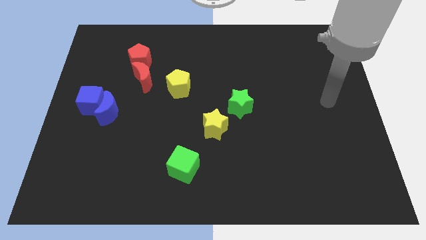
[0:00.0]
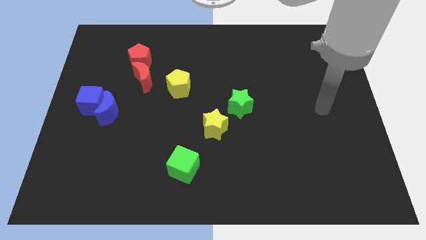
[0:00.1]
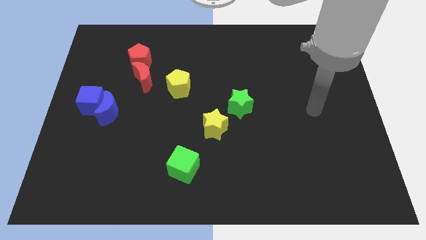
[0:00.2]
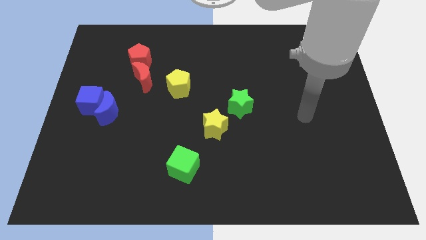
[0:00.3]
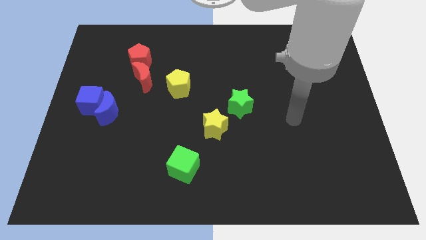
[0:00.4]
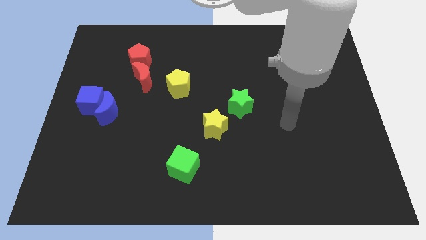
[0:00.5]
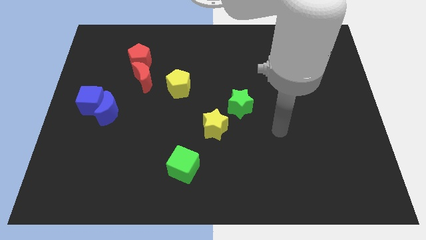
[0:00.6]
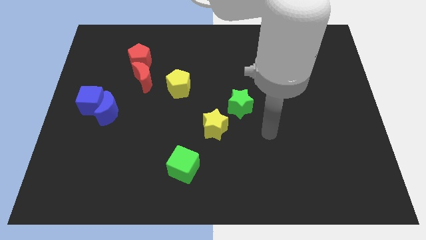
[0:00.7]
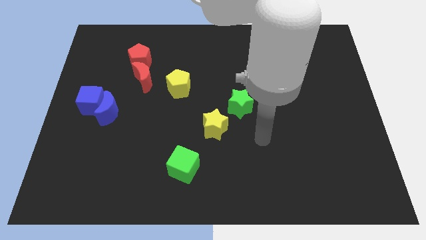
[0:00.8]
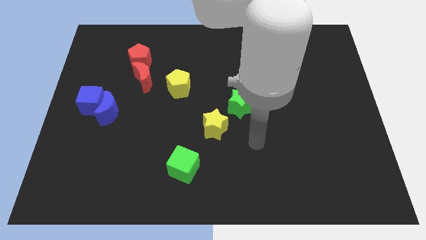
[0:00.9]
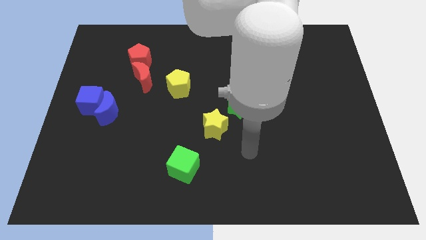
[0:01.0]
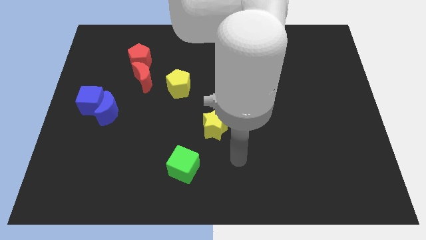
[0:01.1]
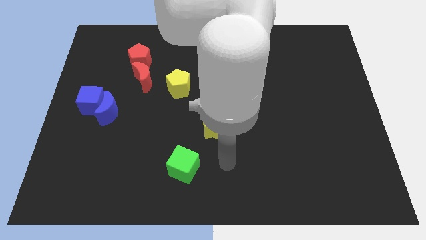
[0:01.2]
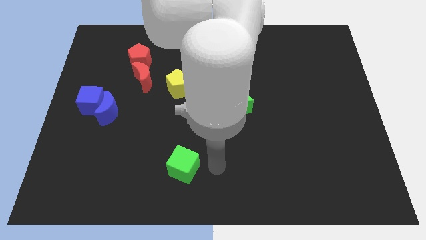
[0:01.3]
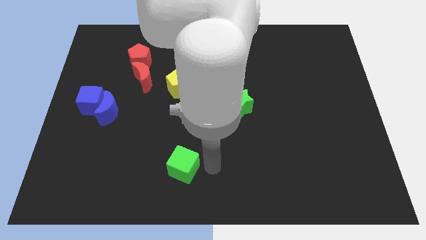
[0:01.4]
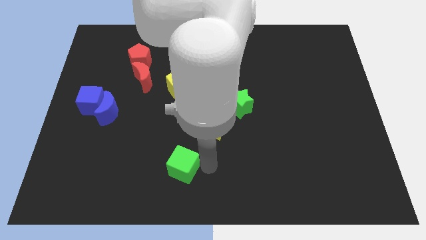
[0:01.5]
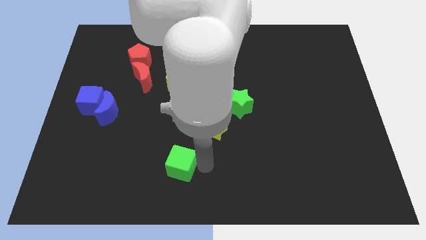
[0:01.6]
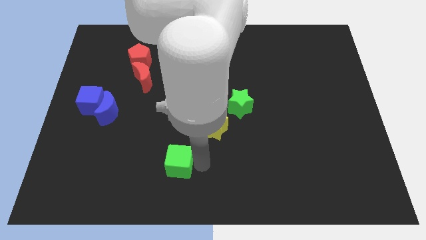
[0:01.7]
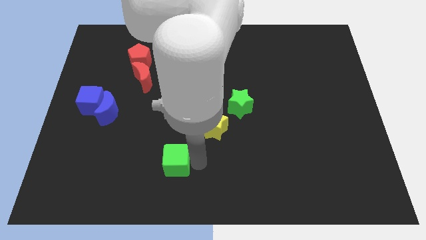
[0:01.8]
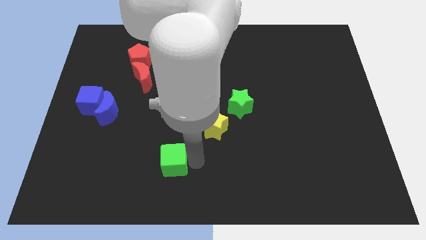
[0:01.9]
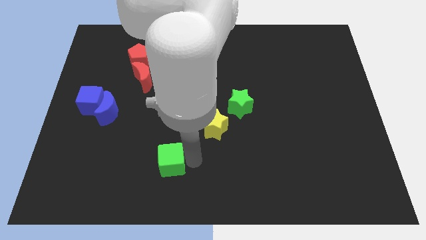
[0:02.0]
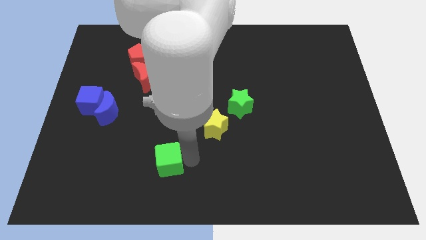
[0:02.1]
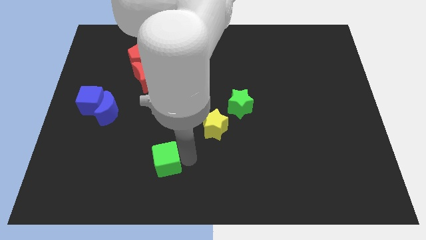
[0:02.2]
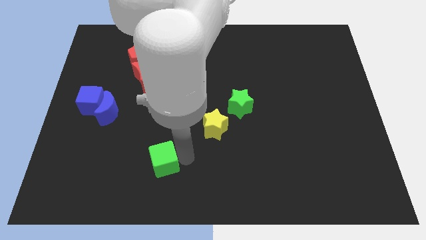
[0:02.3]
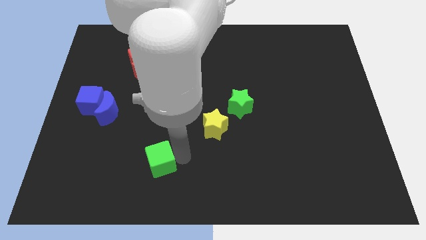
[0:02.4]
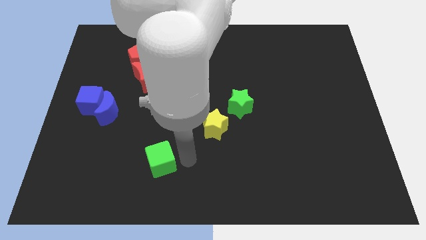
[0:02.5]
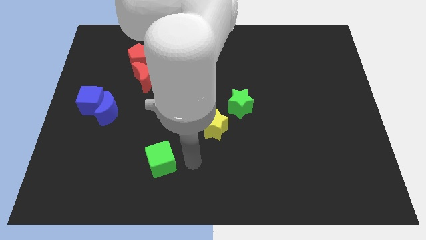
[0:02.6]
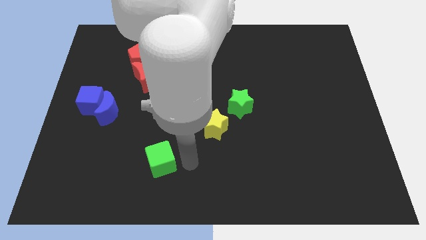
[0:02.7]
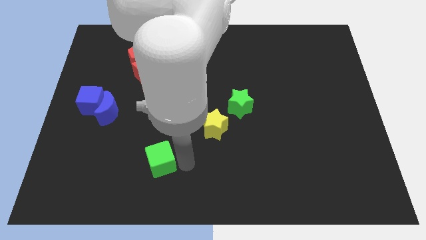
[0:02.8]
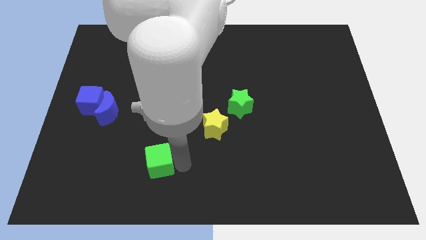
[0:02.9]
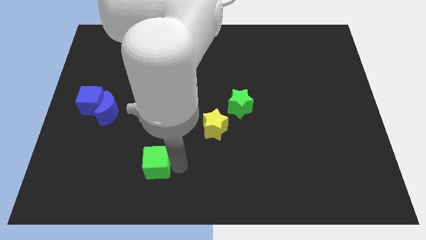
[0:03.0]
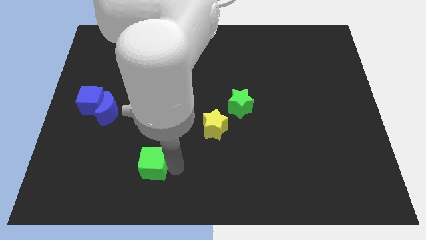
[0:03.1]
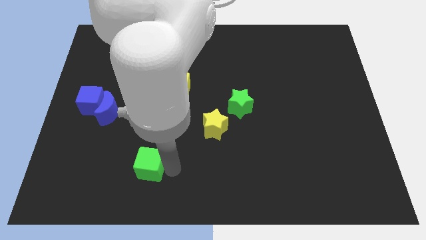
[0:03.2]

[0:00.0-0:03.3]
slightly slide the green cube to the left

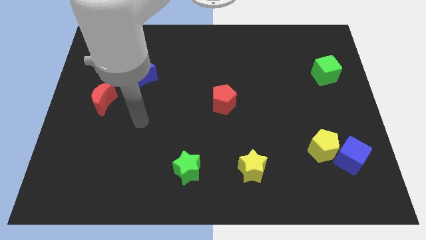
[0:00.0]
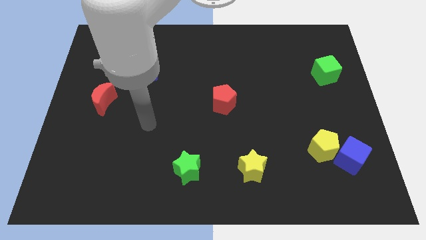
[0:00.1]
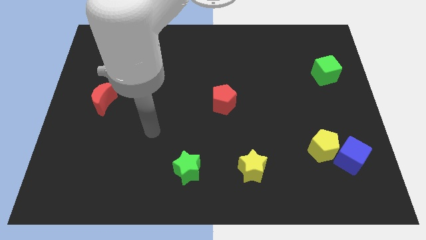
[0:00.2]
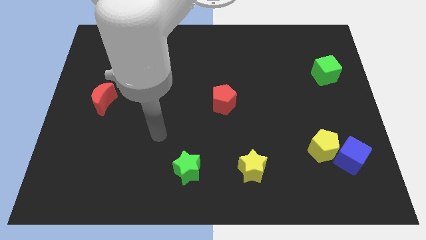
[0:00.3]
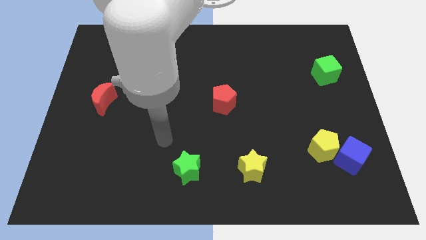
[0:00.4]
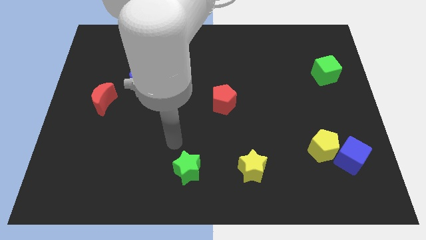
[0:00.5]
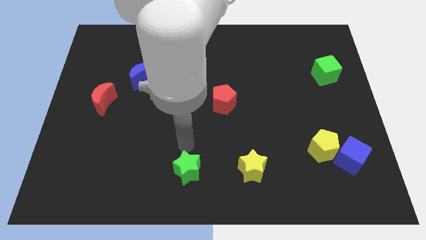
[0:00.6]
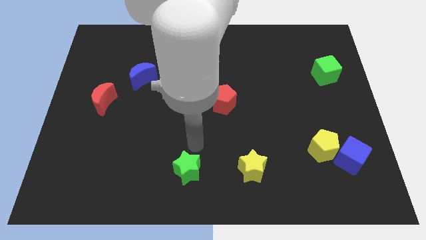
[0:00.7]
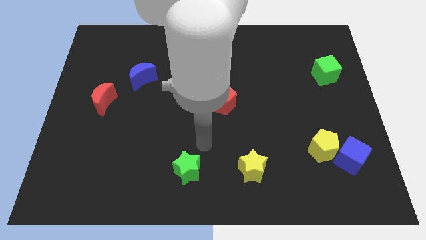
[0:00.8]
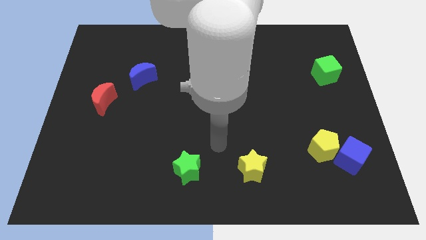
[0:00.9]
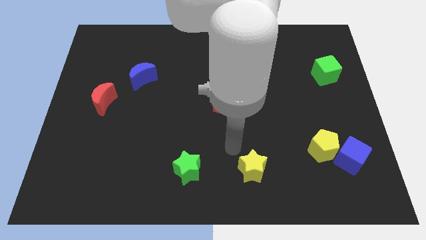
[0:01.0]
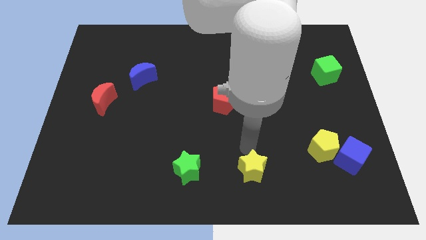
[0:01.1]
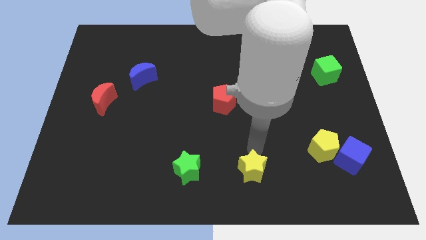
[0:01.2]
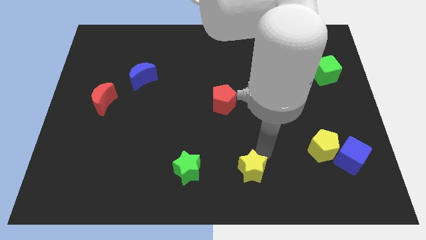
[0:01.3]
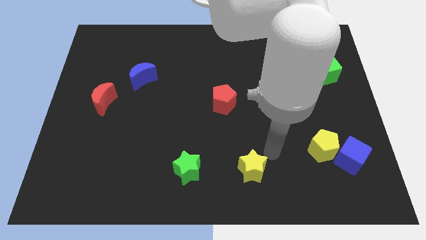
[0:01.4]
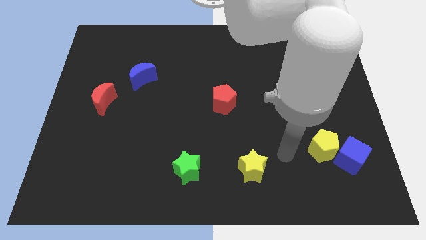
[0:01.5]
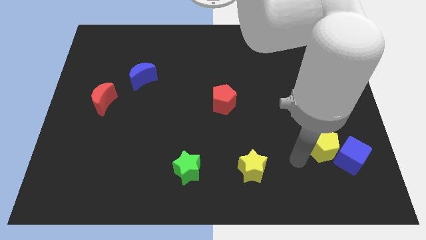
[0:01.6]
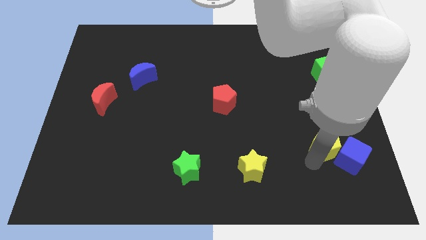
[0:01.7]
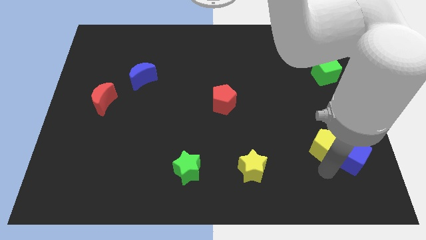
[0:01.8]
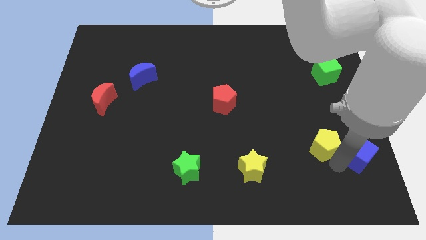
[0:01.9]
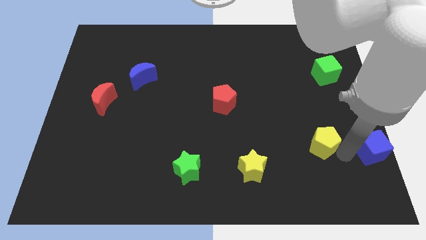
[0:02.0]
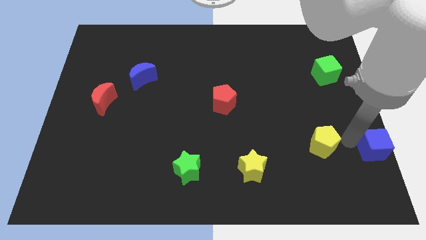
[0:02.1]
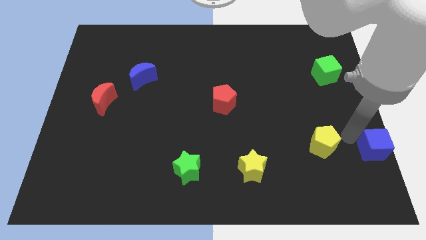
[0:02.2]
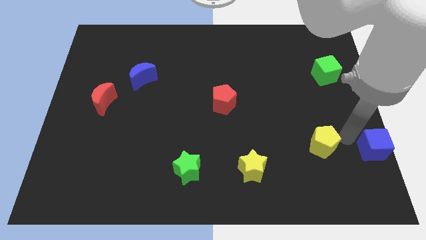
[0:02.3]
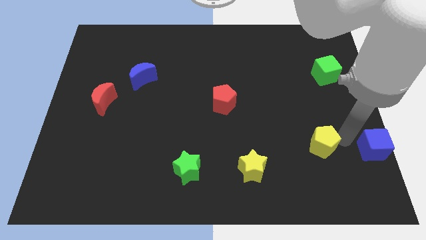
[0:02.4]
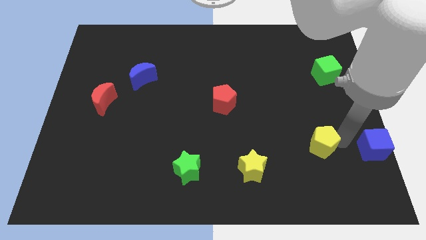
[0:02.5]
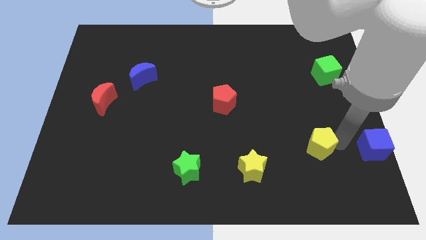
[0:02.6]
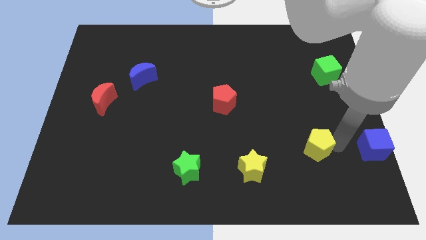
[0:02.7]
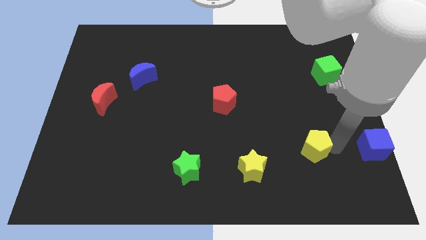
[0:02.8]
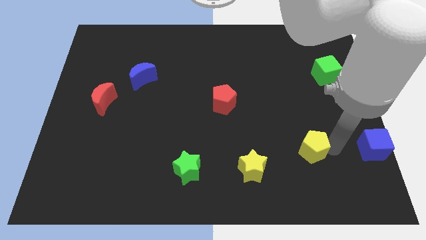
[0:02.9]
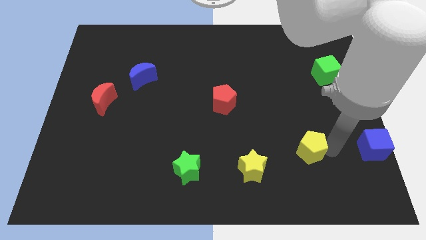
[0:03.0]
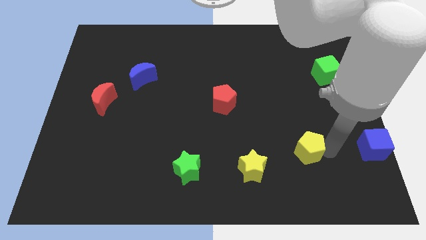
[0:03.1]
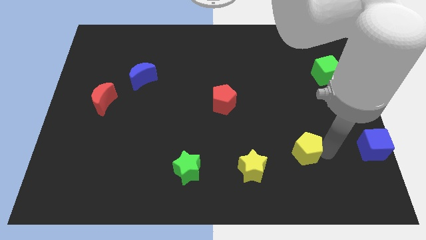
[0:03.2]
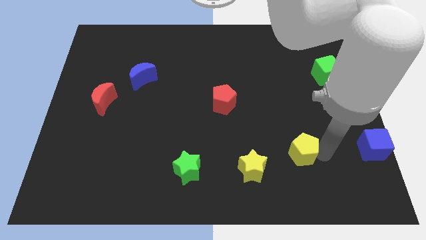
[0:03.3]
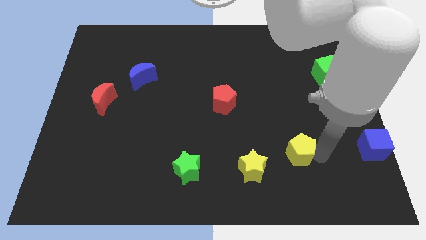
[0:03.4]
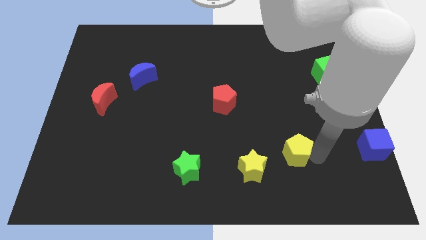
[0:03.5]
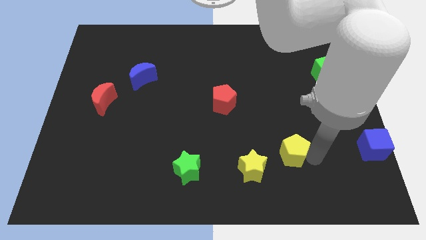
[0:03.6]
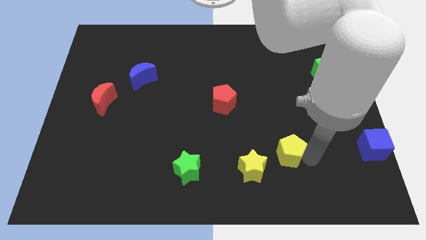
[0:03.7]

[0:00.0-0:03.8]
slightly move the yellow pentagon to the left

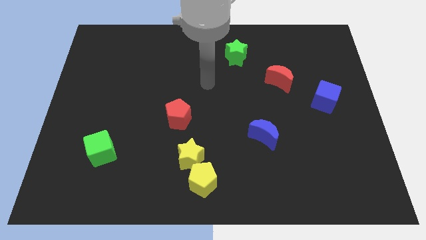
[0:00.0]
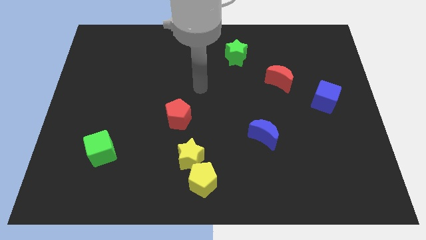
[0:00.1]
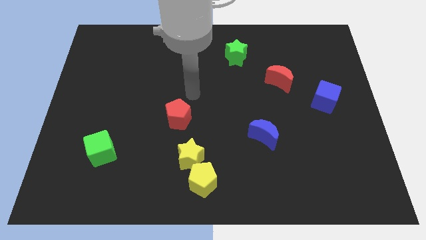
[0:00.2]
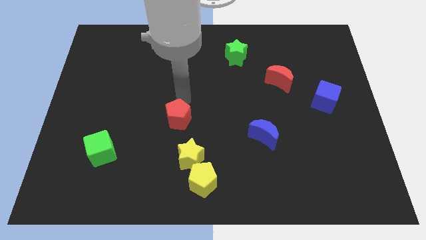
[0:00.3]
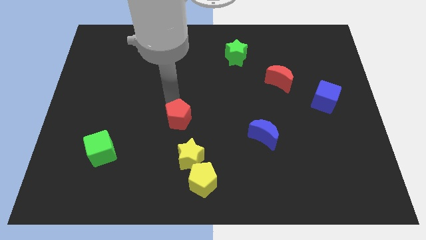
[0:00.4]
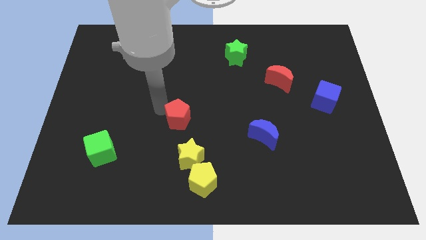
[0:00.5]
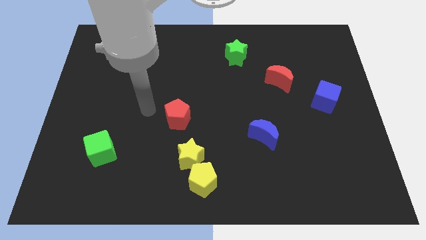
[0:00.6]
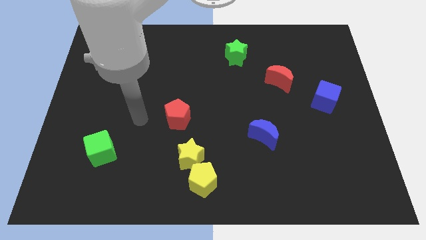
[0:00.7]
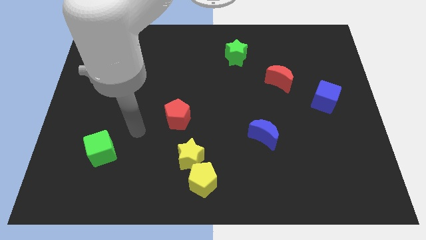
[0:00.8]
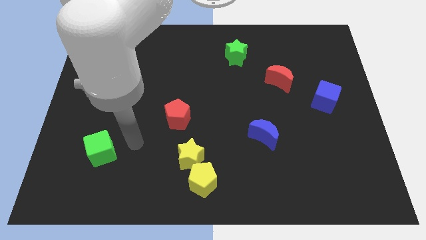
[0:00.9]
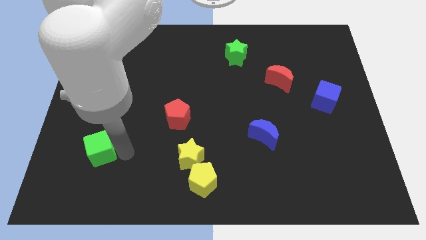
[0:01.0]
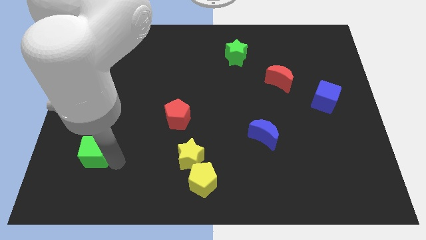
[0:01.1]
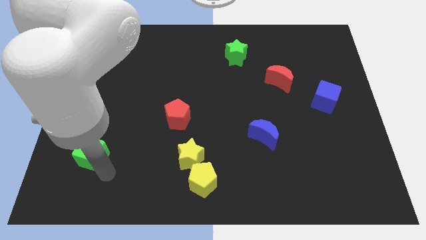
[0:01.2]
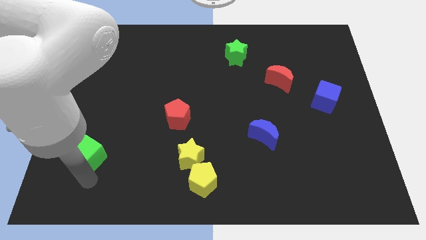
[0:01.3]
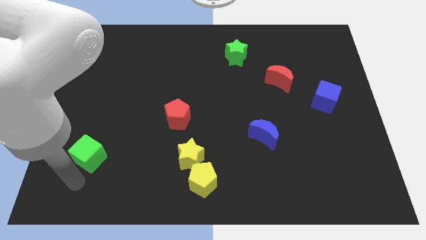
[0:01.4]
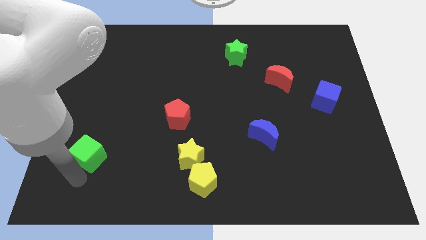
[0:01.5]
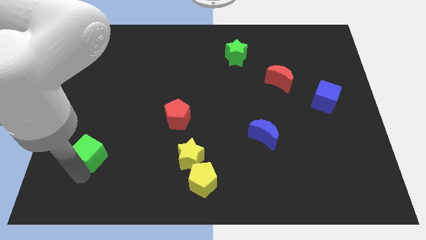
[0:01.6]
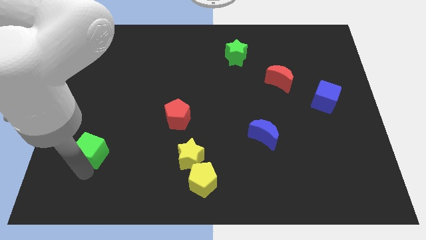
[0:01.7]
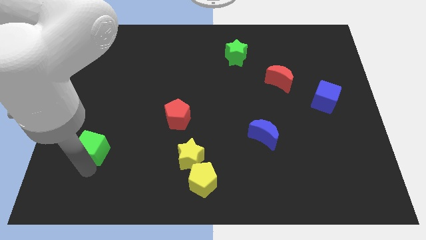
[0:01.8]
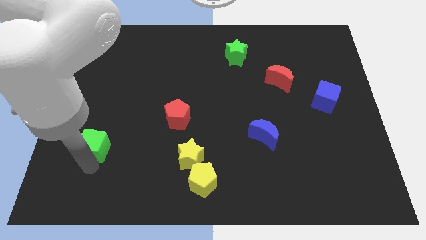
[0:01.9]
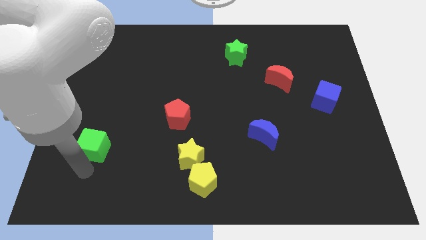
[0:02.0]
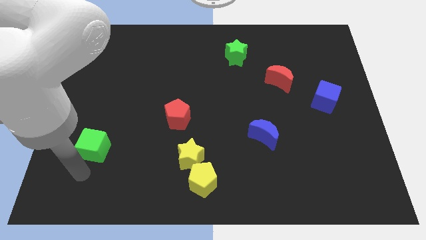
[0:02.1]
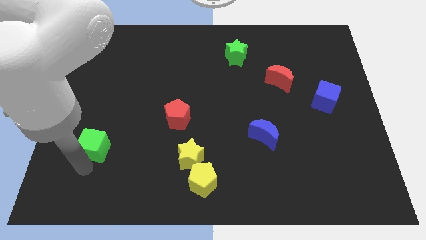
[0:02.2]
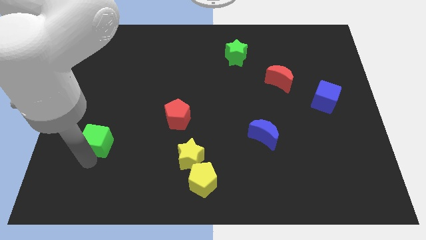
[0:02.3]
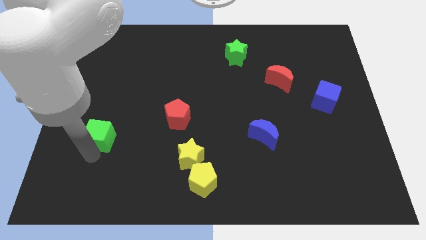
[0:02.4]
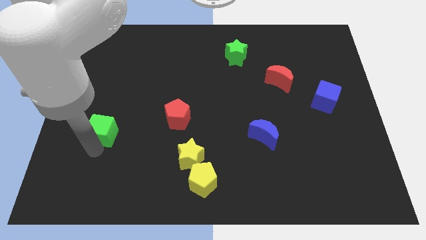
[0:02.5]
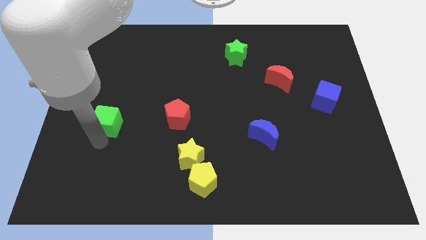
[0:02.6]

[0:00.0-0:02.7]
slightly move the green cube up
